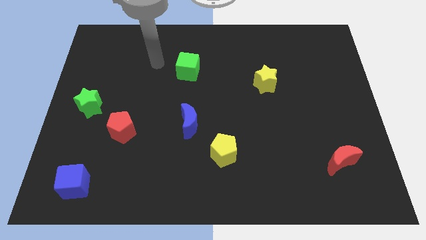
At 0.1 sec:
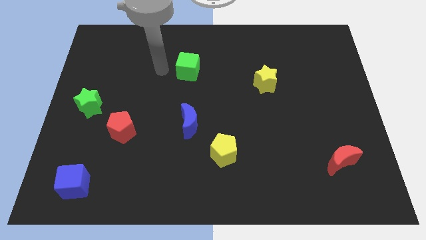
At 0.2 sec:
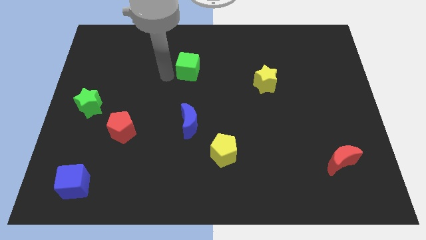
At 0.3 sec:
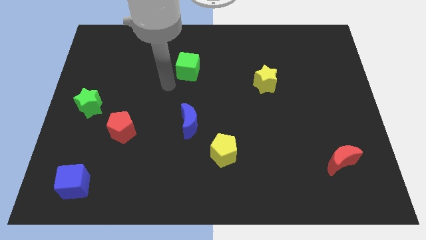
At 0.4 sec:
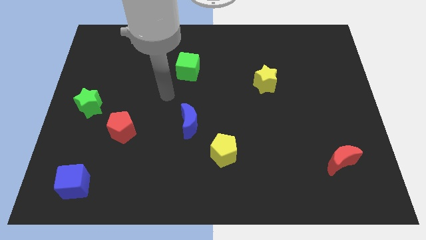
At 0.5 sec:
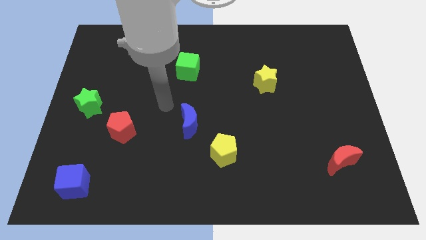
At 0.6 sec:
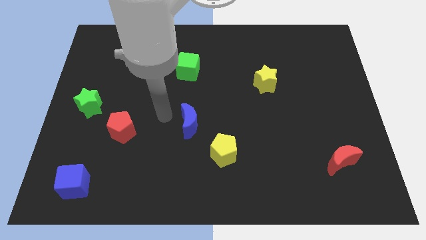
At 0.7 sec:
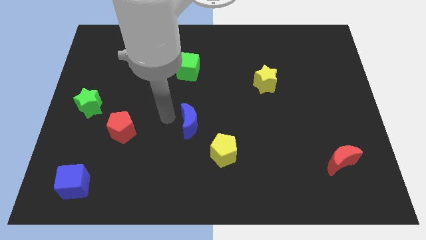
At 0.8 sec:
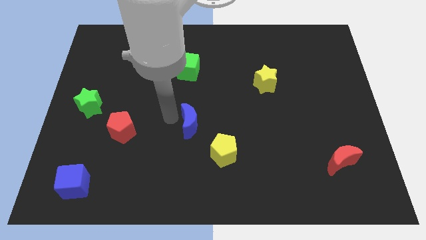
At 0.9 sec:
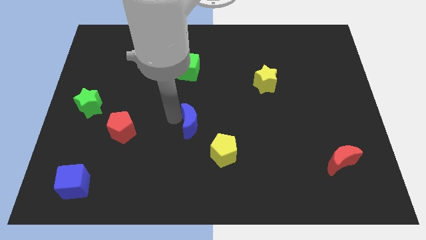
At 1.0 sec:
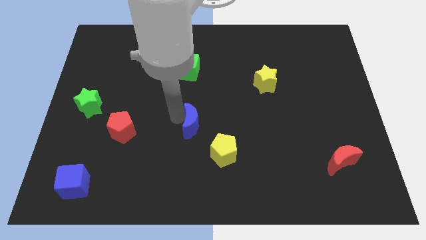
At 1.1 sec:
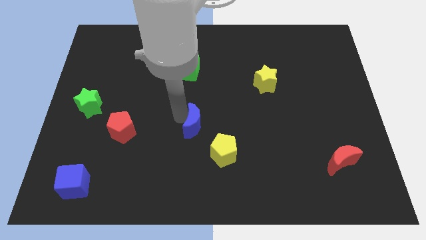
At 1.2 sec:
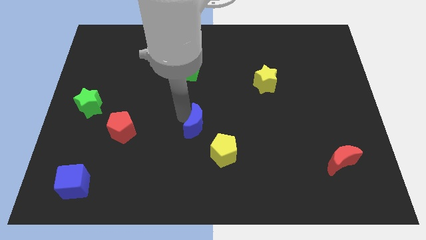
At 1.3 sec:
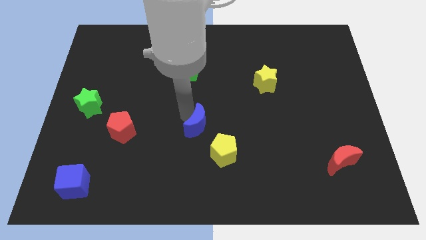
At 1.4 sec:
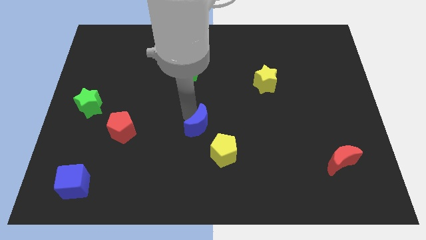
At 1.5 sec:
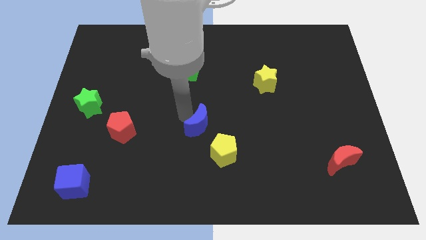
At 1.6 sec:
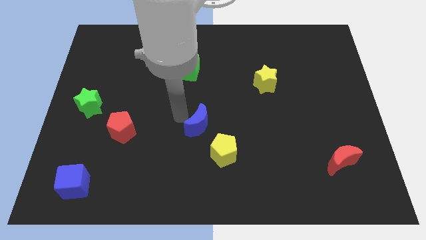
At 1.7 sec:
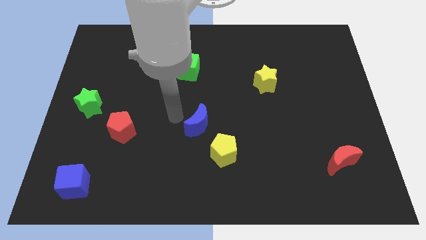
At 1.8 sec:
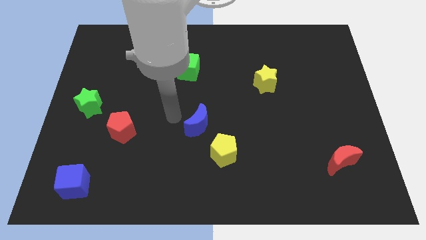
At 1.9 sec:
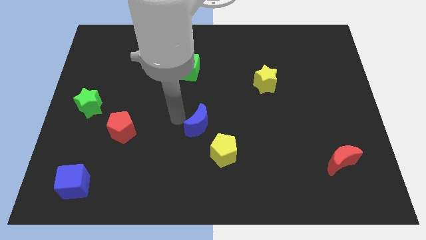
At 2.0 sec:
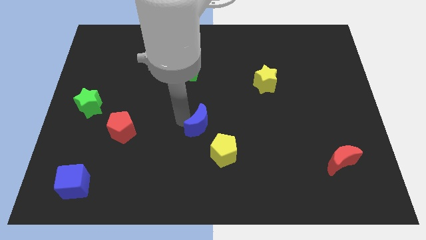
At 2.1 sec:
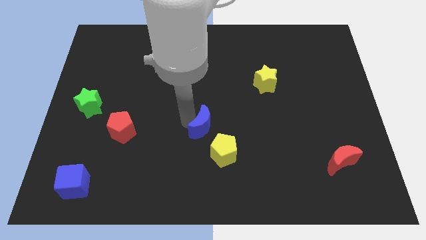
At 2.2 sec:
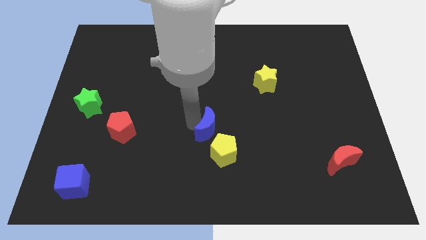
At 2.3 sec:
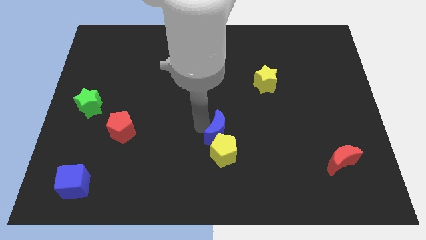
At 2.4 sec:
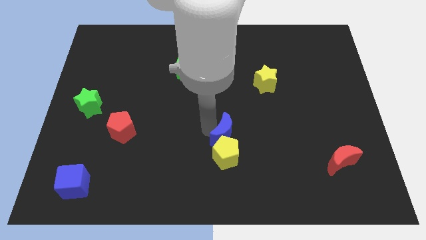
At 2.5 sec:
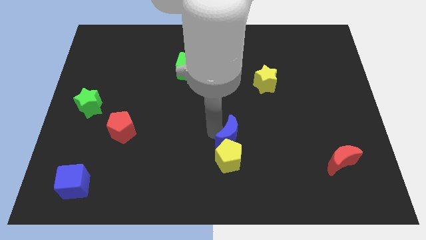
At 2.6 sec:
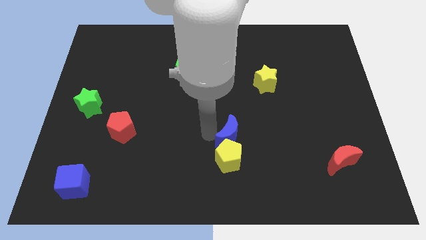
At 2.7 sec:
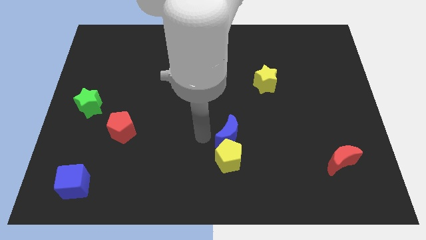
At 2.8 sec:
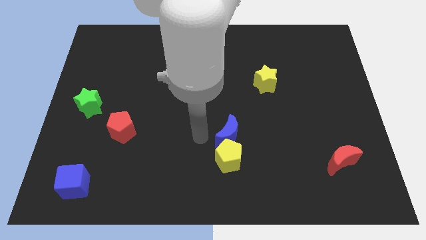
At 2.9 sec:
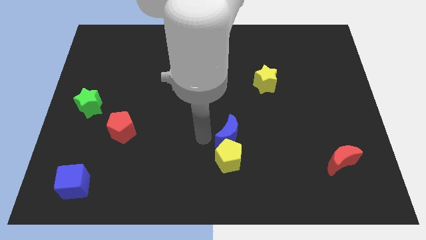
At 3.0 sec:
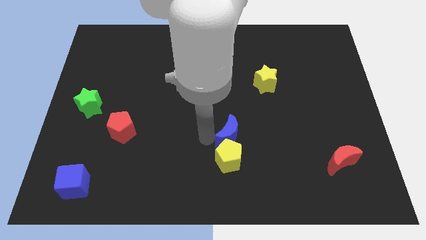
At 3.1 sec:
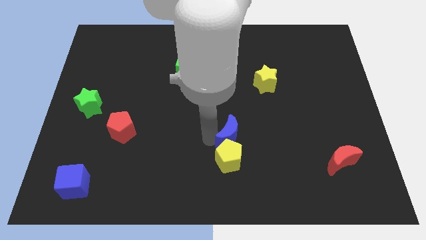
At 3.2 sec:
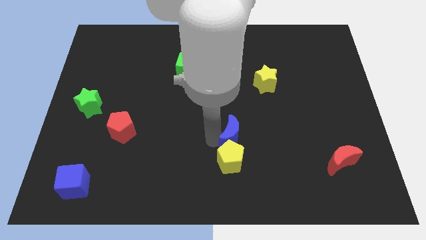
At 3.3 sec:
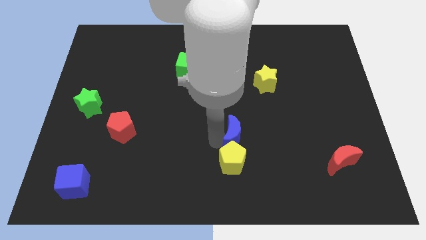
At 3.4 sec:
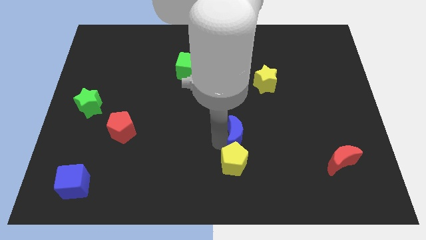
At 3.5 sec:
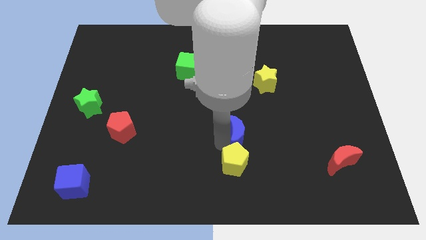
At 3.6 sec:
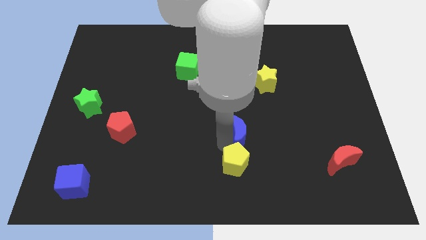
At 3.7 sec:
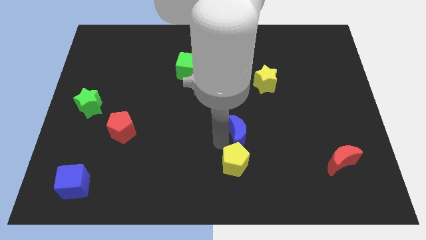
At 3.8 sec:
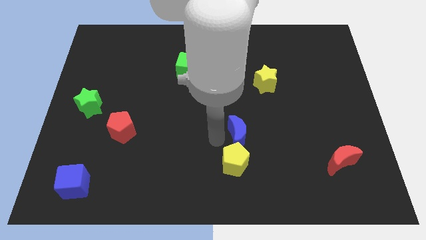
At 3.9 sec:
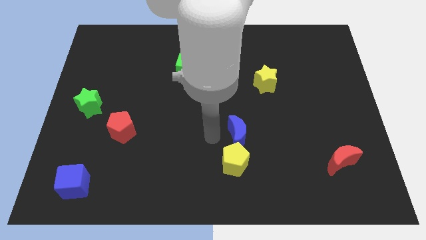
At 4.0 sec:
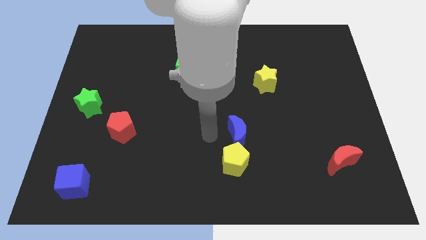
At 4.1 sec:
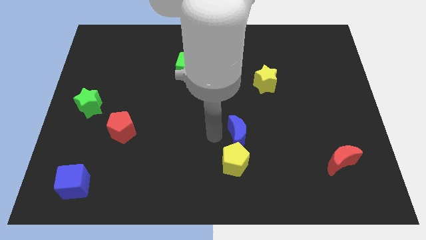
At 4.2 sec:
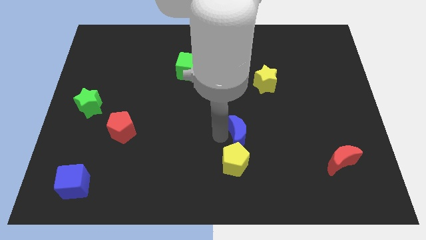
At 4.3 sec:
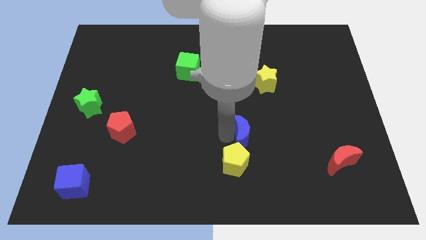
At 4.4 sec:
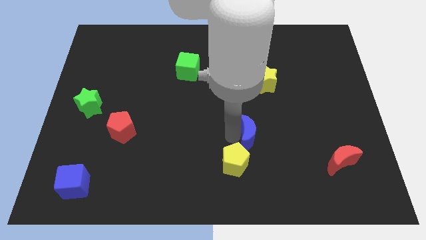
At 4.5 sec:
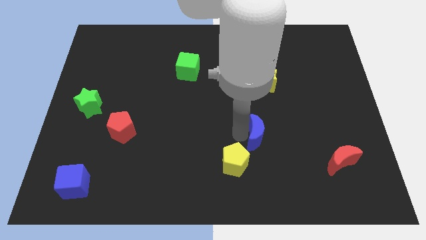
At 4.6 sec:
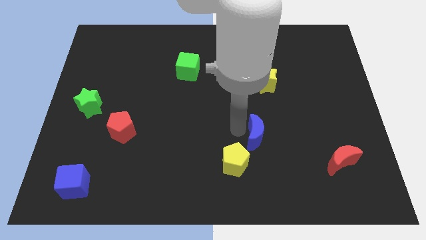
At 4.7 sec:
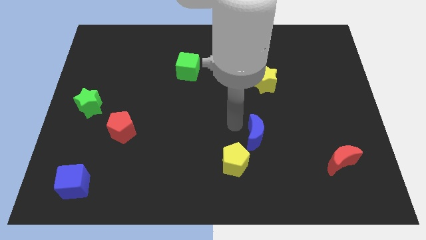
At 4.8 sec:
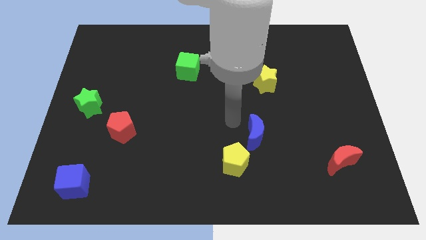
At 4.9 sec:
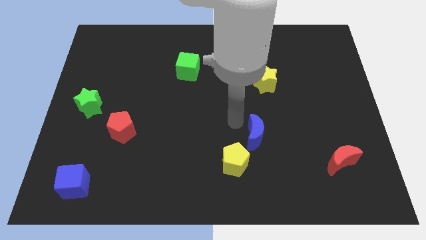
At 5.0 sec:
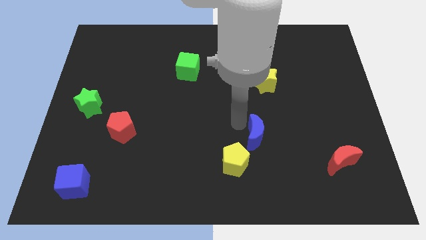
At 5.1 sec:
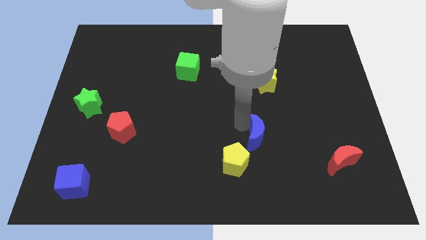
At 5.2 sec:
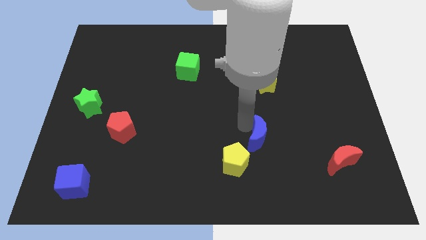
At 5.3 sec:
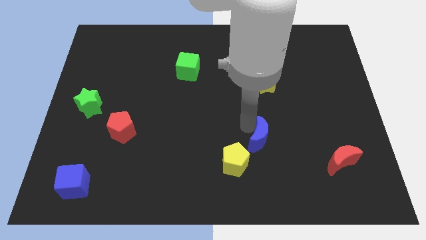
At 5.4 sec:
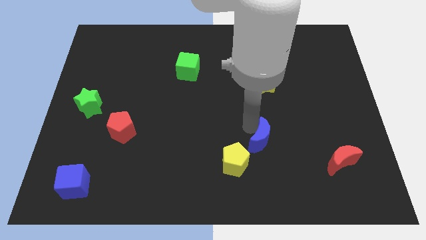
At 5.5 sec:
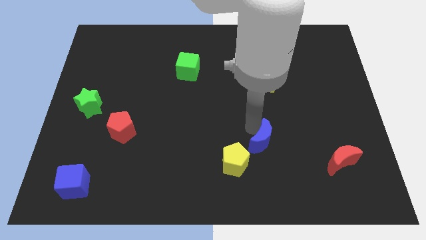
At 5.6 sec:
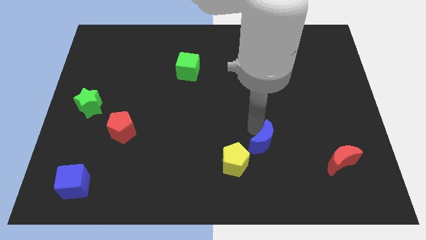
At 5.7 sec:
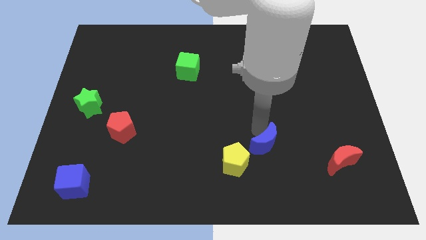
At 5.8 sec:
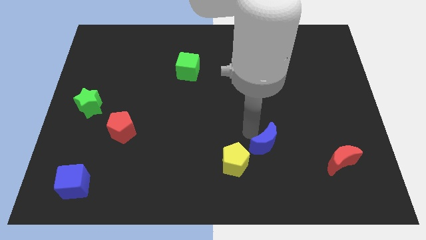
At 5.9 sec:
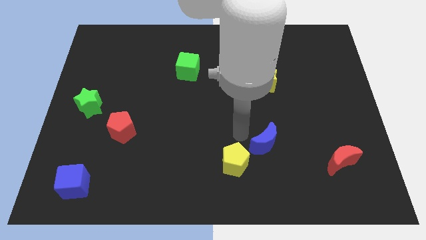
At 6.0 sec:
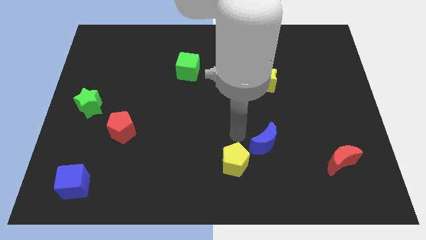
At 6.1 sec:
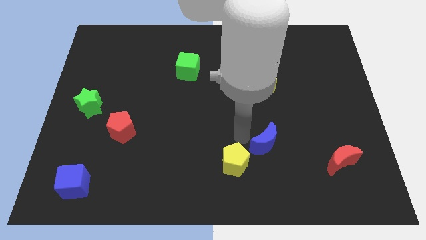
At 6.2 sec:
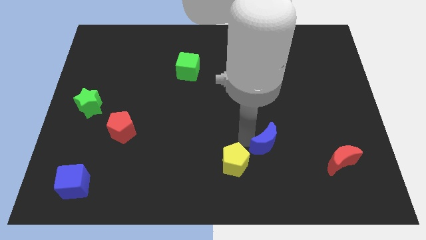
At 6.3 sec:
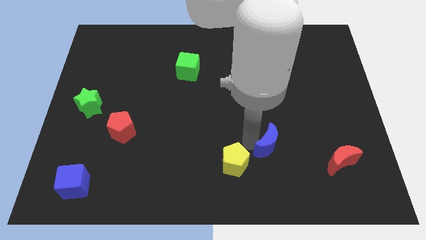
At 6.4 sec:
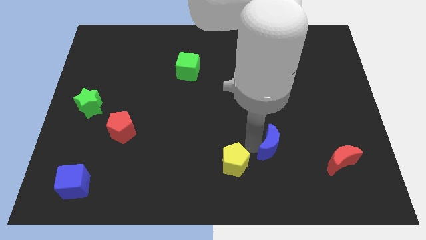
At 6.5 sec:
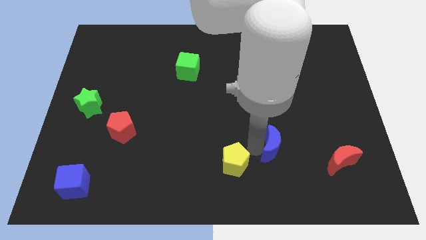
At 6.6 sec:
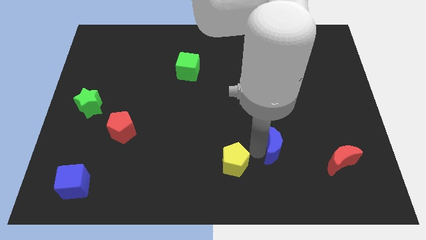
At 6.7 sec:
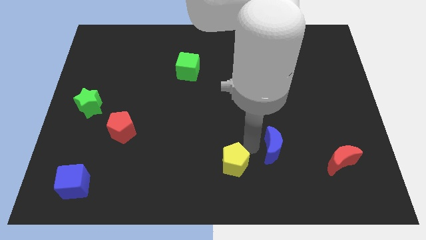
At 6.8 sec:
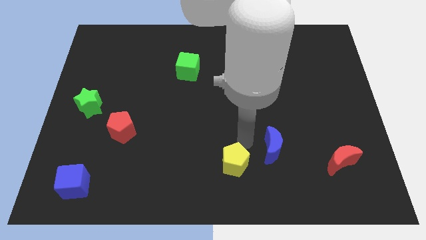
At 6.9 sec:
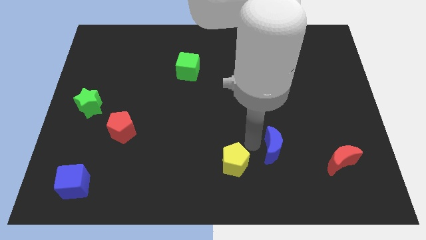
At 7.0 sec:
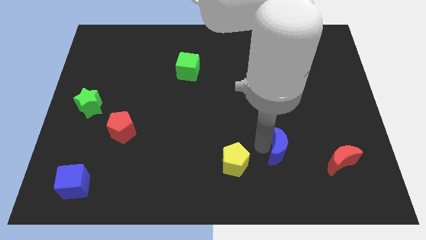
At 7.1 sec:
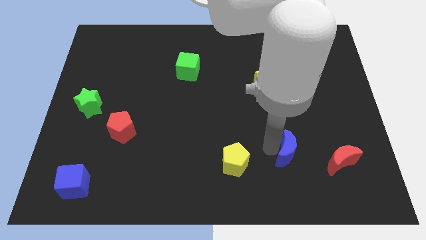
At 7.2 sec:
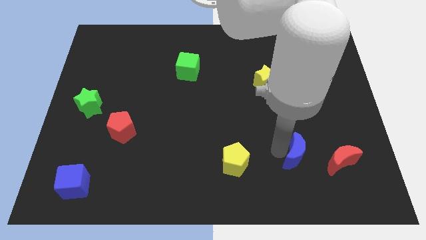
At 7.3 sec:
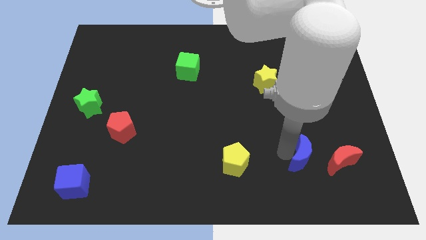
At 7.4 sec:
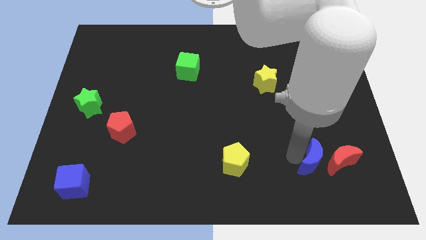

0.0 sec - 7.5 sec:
slide the blue moon towards the red moon
